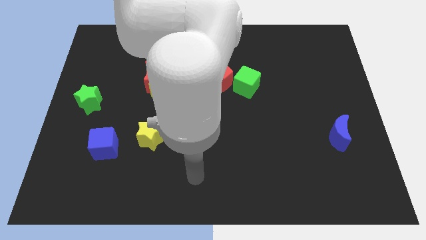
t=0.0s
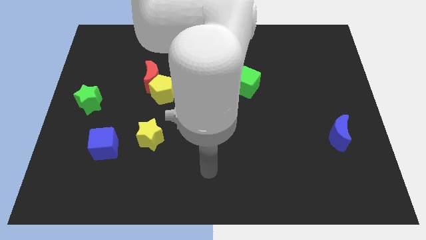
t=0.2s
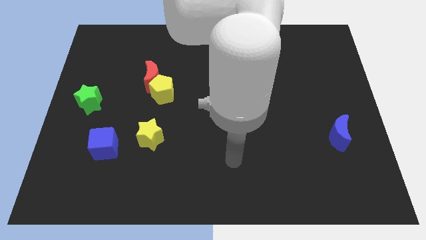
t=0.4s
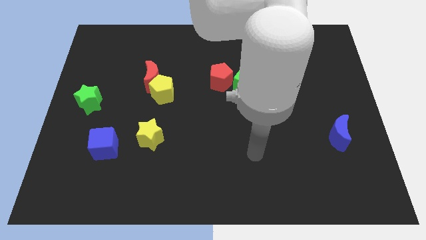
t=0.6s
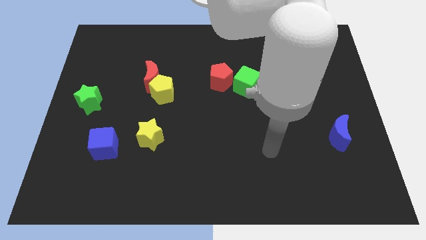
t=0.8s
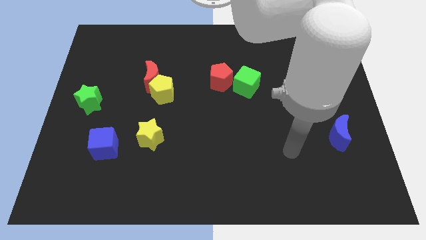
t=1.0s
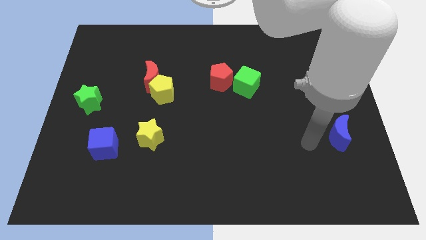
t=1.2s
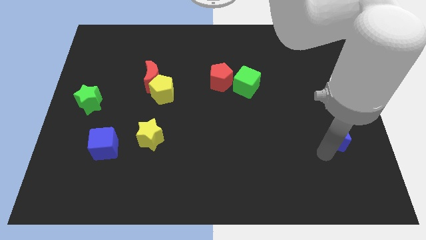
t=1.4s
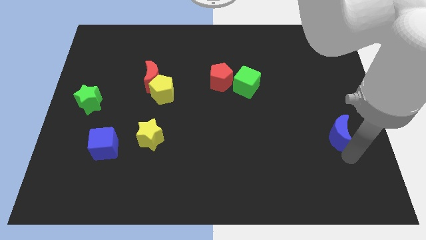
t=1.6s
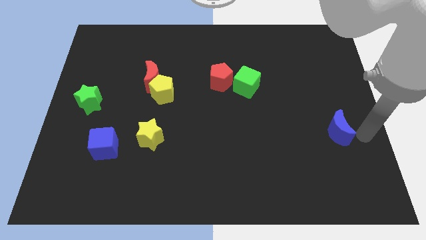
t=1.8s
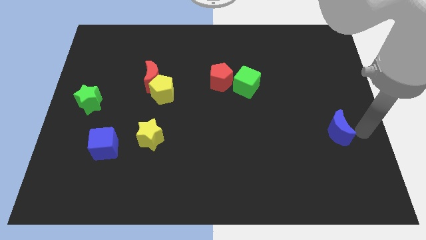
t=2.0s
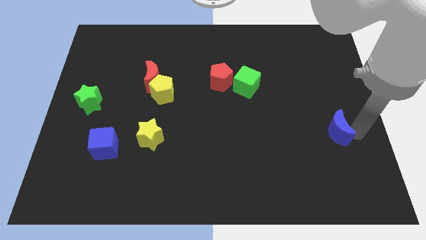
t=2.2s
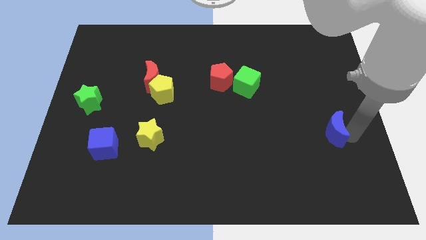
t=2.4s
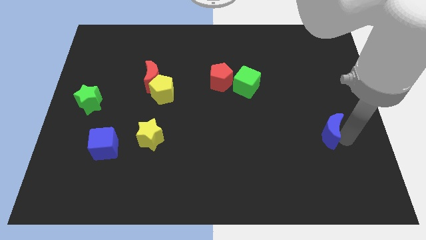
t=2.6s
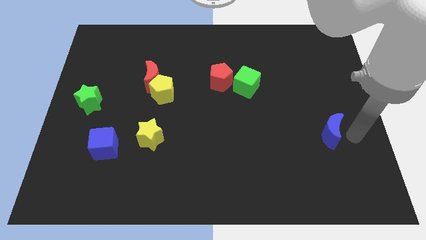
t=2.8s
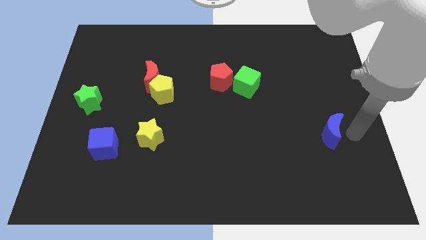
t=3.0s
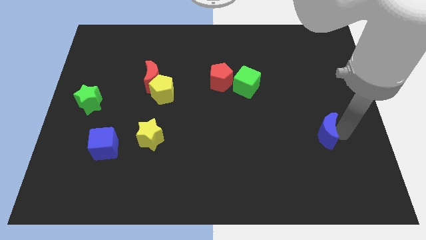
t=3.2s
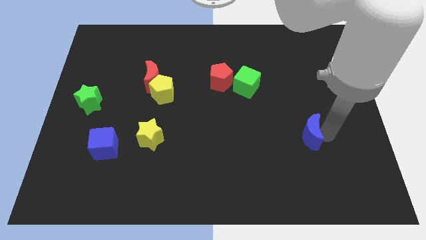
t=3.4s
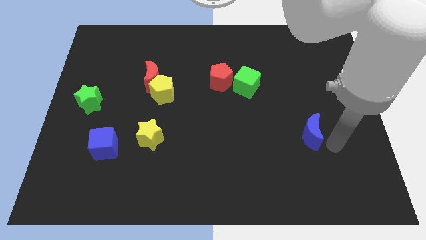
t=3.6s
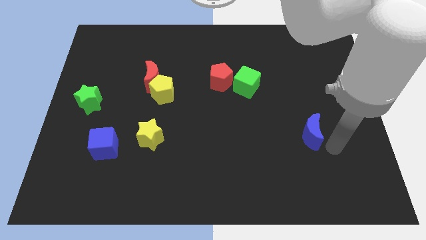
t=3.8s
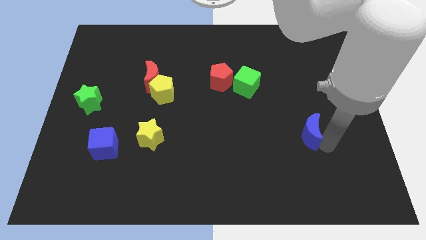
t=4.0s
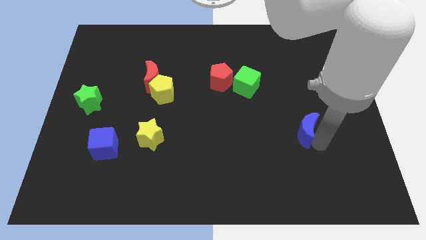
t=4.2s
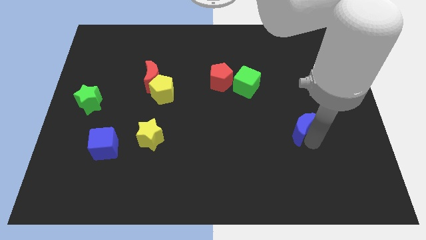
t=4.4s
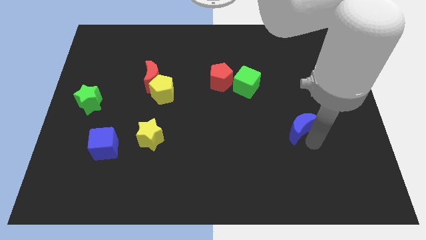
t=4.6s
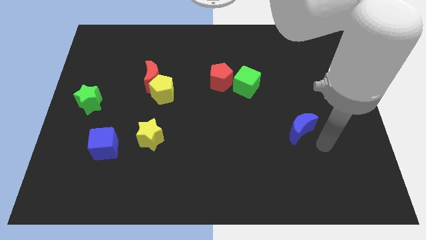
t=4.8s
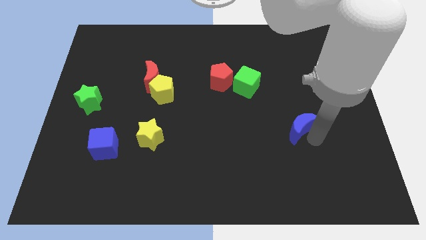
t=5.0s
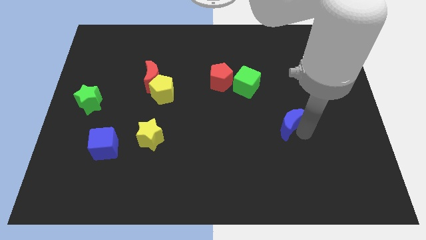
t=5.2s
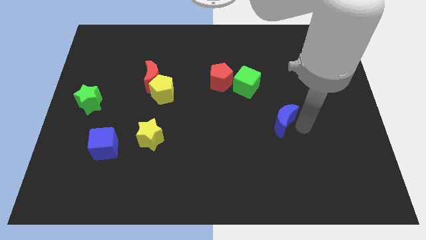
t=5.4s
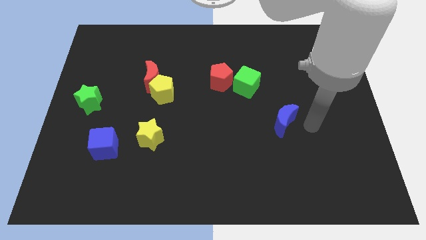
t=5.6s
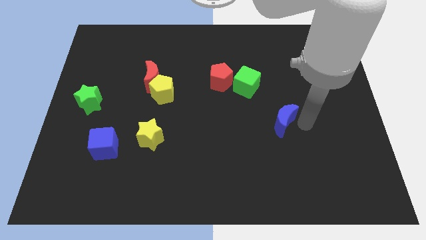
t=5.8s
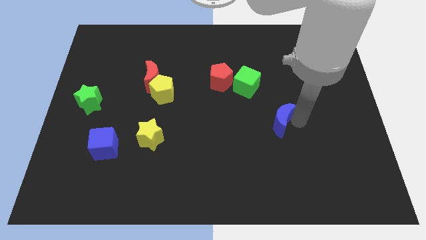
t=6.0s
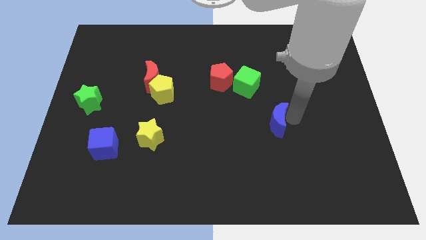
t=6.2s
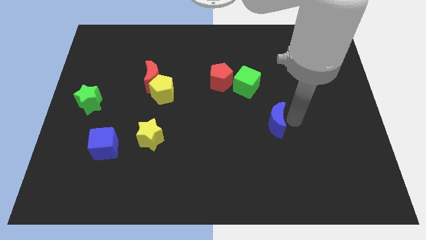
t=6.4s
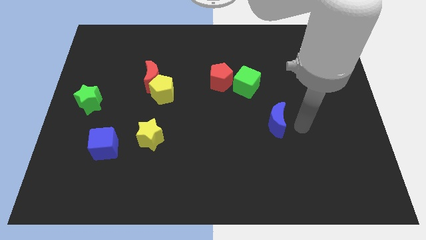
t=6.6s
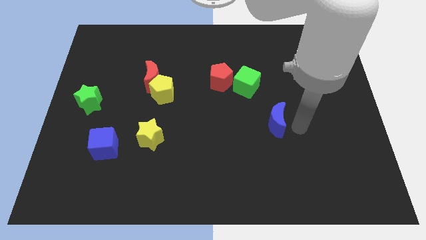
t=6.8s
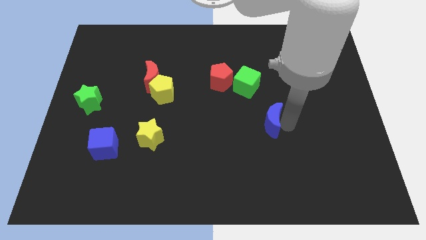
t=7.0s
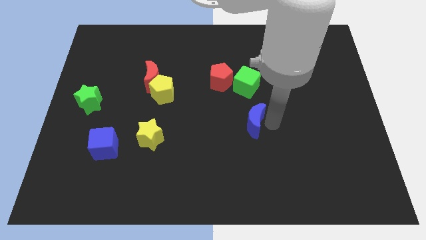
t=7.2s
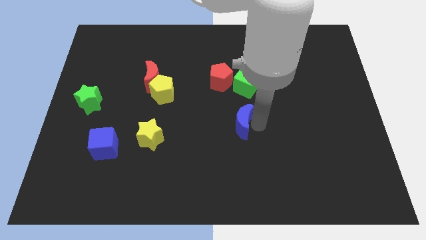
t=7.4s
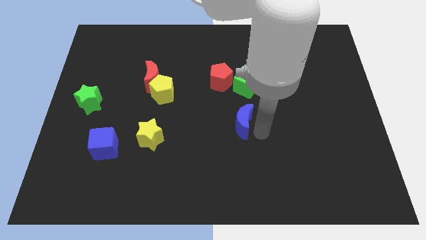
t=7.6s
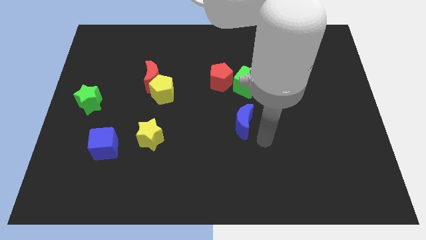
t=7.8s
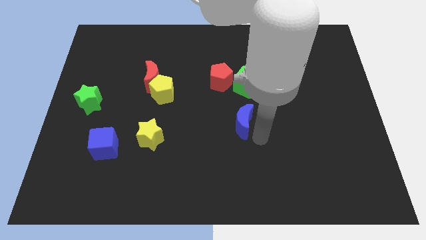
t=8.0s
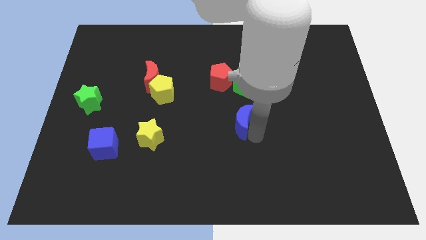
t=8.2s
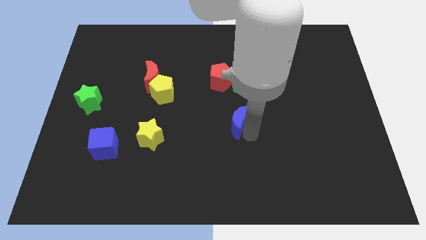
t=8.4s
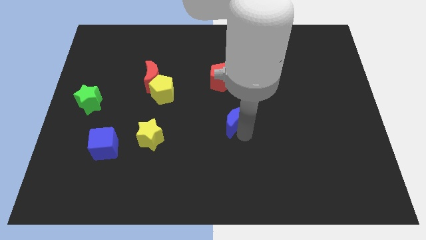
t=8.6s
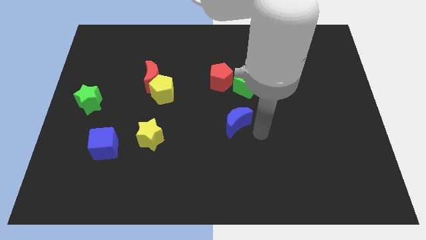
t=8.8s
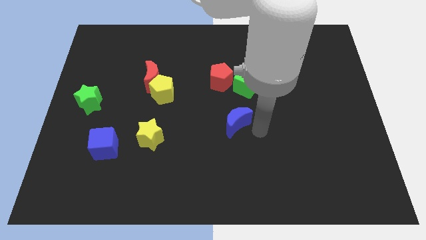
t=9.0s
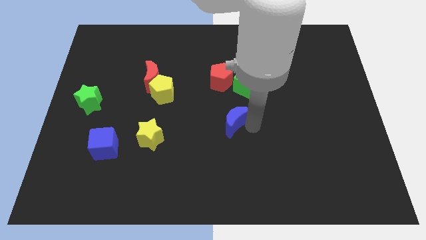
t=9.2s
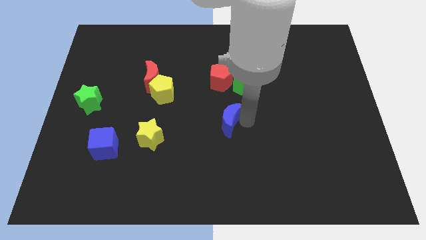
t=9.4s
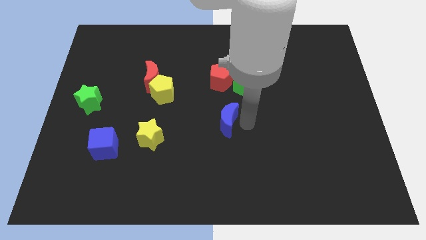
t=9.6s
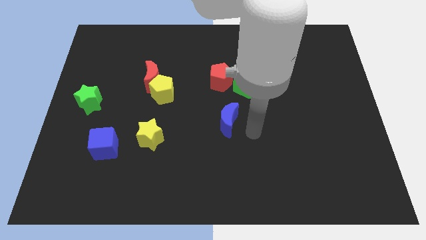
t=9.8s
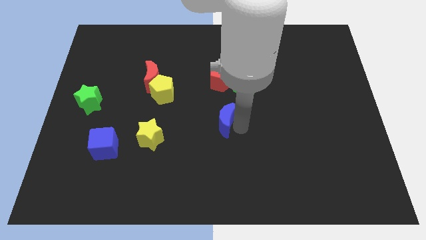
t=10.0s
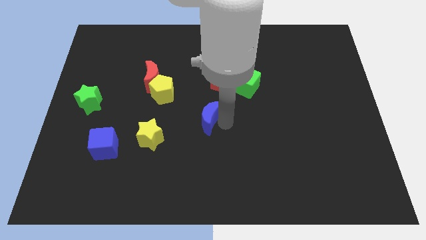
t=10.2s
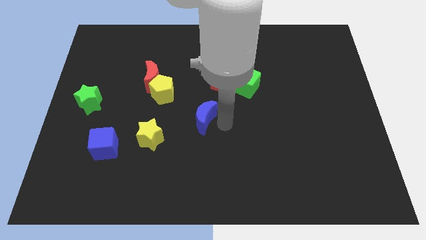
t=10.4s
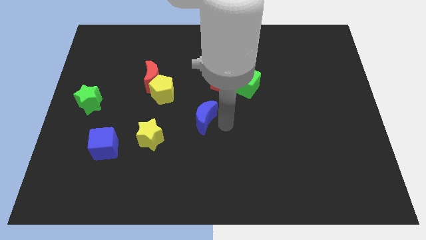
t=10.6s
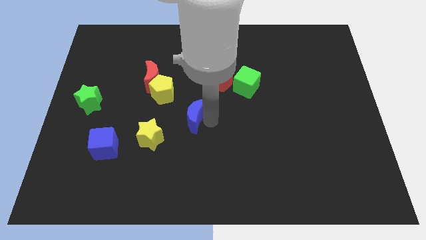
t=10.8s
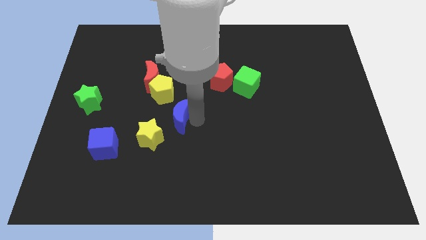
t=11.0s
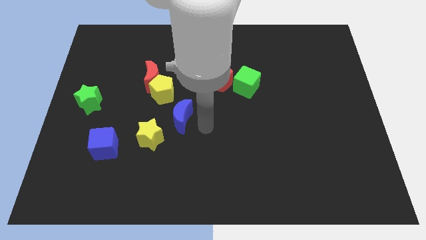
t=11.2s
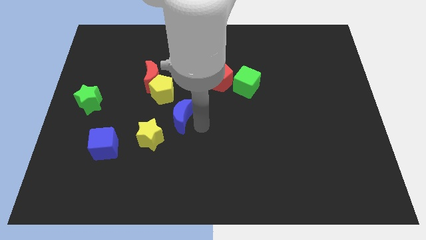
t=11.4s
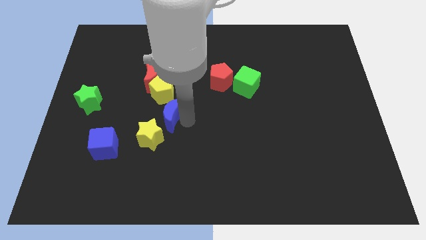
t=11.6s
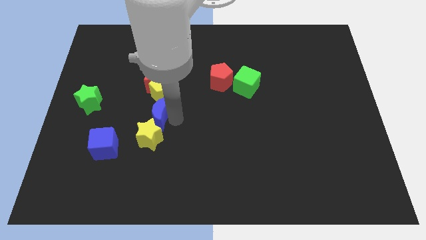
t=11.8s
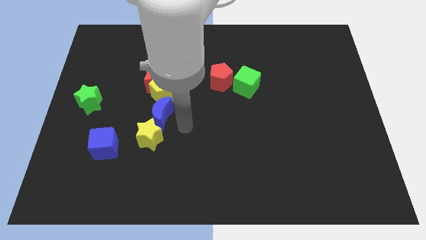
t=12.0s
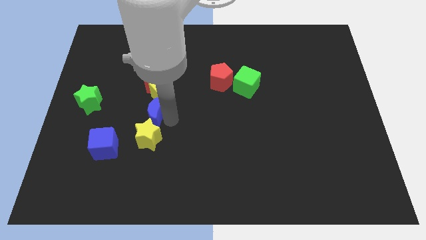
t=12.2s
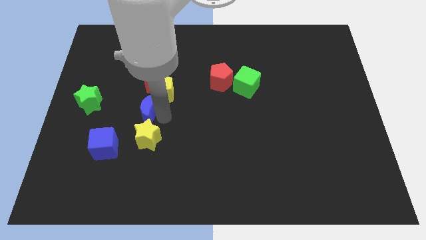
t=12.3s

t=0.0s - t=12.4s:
put the blue moon just right of the green star

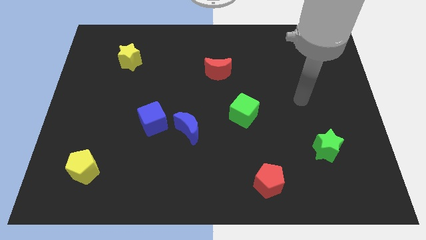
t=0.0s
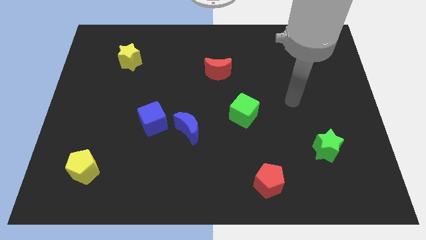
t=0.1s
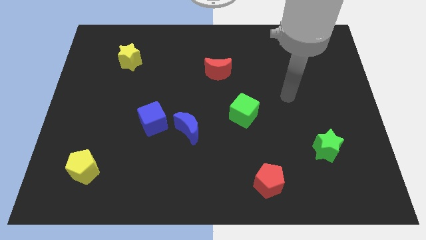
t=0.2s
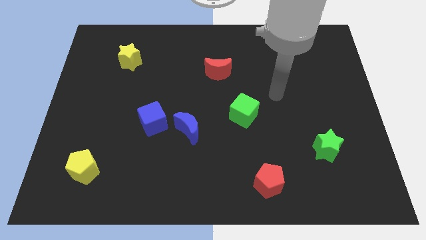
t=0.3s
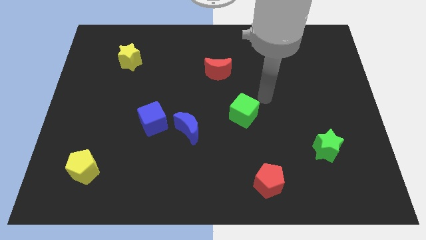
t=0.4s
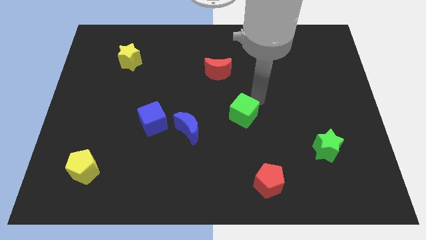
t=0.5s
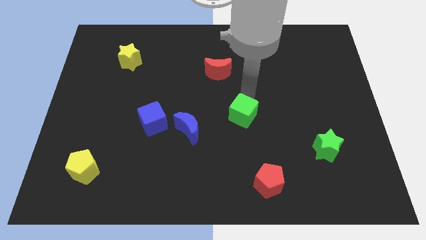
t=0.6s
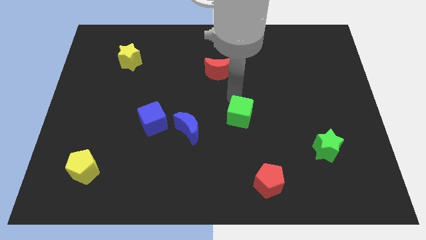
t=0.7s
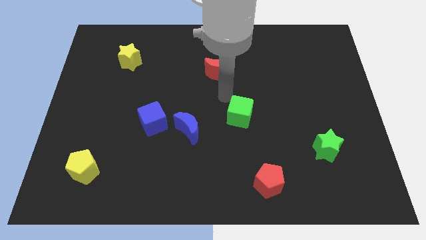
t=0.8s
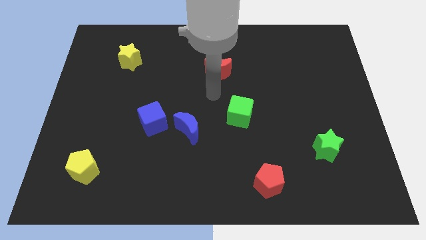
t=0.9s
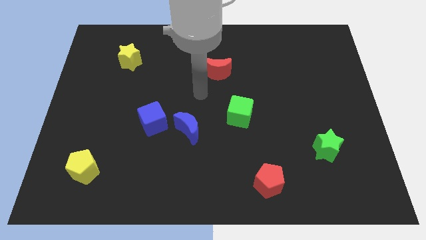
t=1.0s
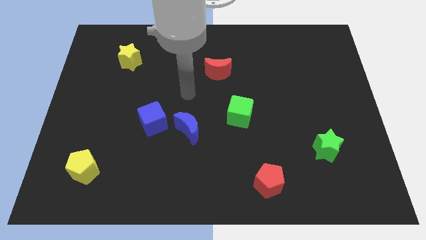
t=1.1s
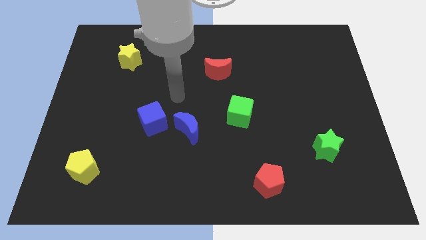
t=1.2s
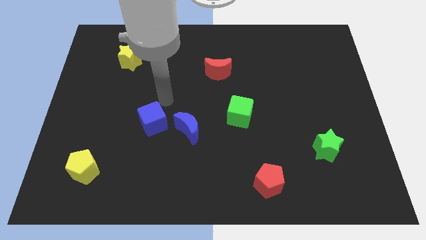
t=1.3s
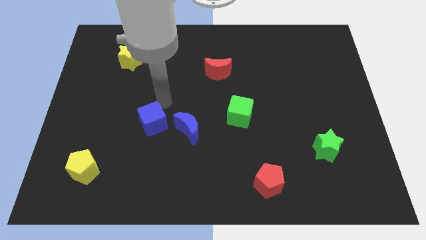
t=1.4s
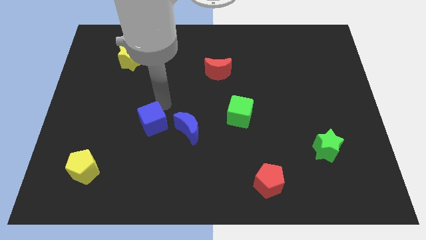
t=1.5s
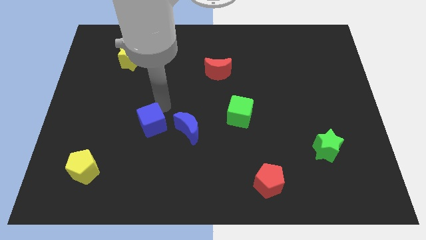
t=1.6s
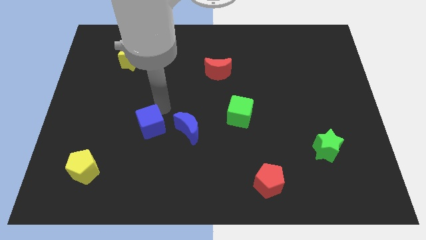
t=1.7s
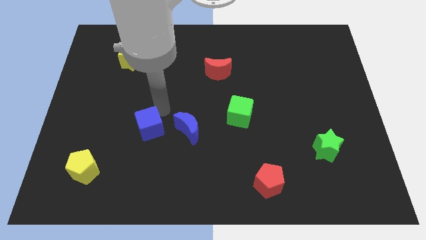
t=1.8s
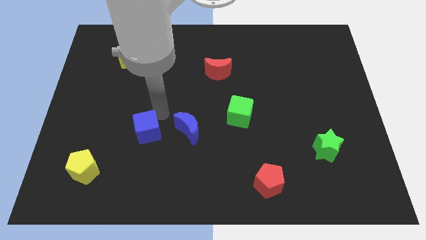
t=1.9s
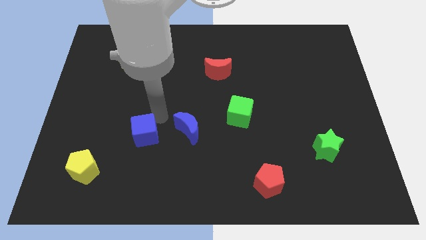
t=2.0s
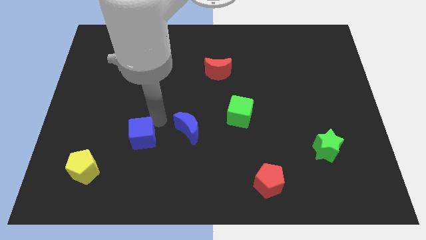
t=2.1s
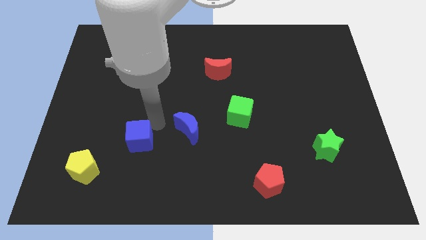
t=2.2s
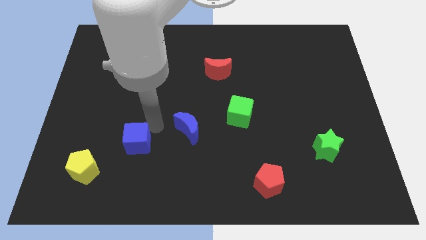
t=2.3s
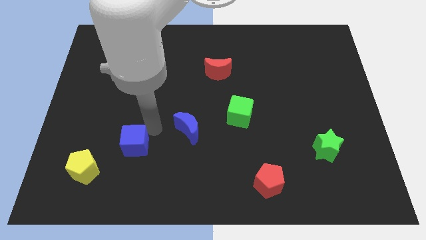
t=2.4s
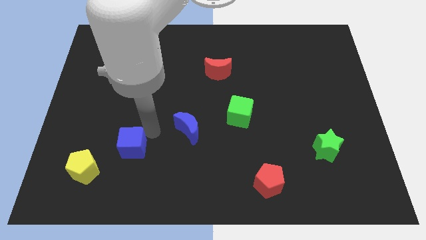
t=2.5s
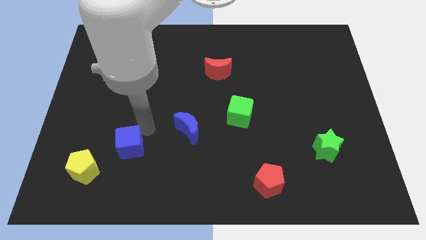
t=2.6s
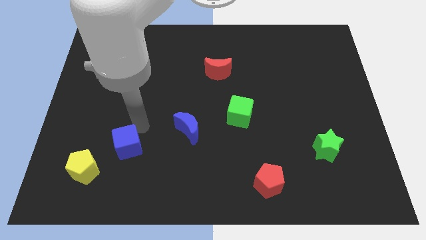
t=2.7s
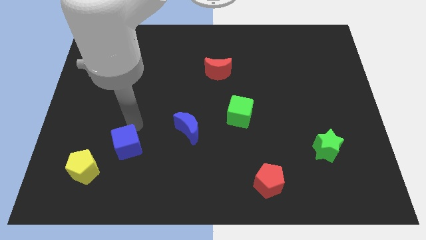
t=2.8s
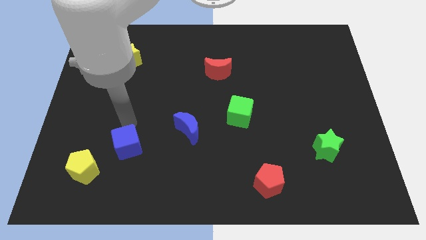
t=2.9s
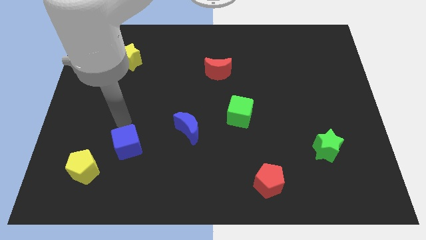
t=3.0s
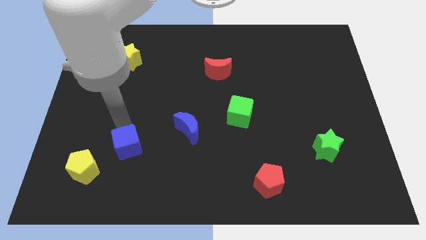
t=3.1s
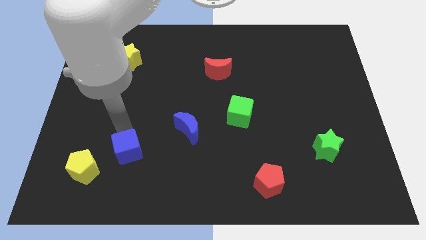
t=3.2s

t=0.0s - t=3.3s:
slide the blue cube just right of the yellow pentagon
